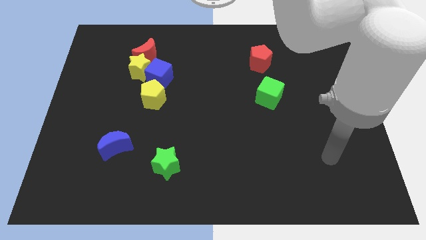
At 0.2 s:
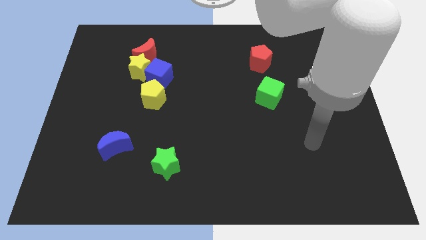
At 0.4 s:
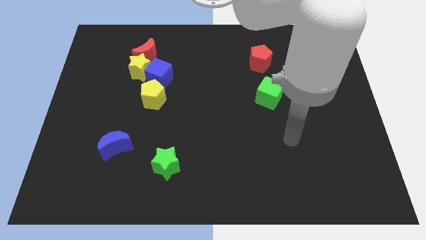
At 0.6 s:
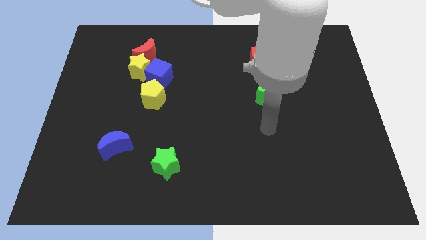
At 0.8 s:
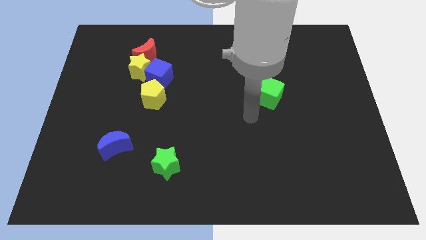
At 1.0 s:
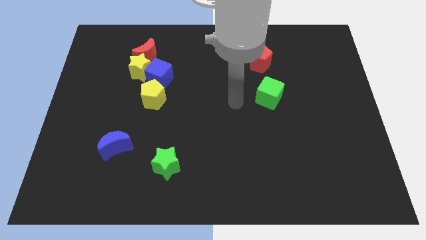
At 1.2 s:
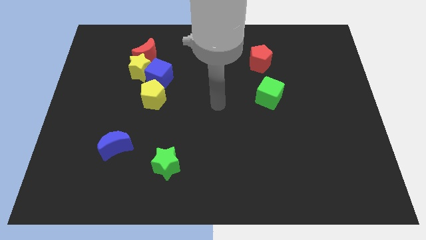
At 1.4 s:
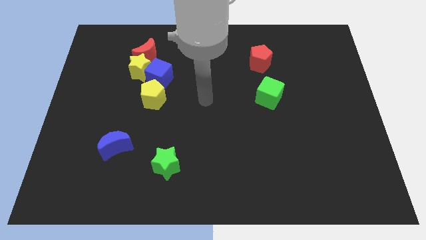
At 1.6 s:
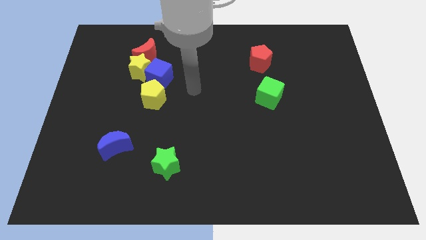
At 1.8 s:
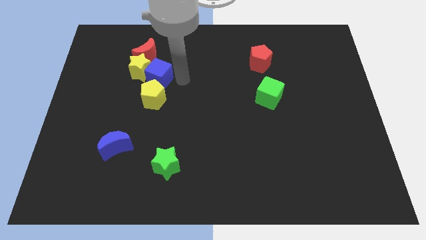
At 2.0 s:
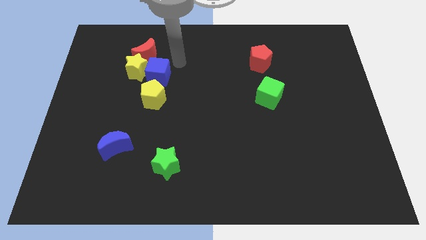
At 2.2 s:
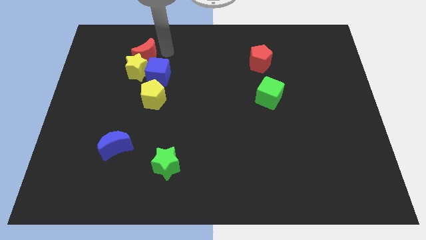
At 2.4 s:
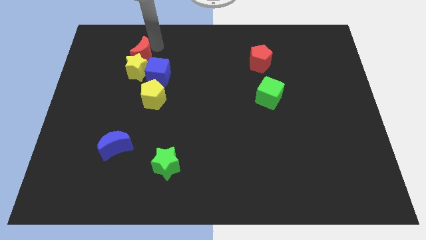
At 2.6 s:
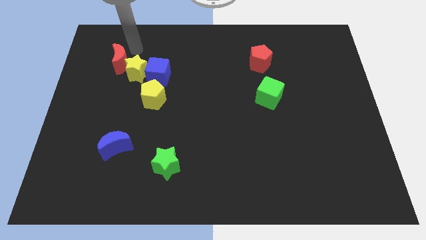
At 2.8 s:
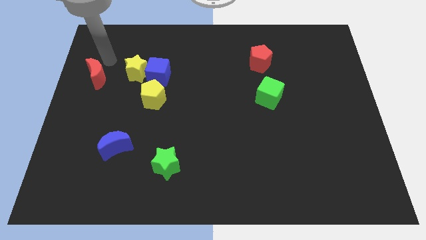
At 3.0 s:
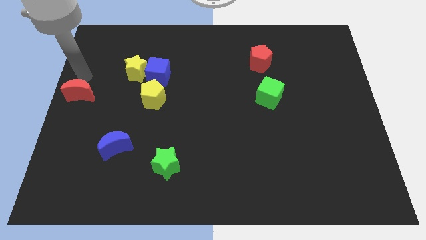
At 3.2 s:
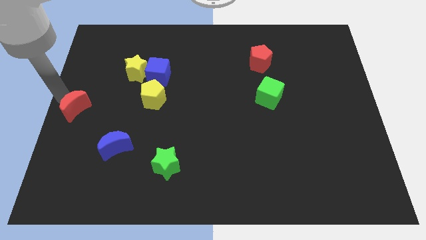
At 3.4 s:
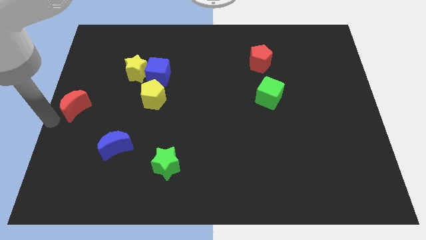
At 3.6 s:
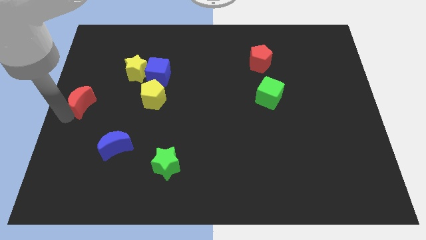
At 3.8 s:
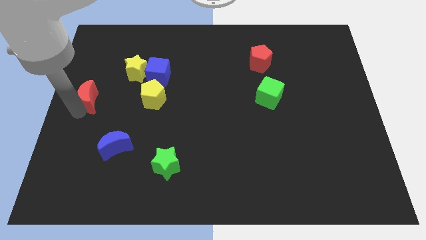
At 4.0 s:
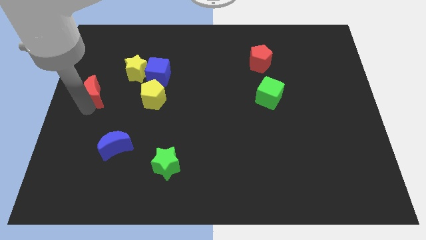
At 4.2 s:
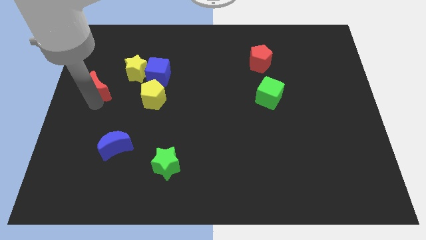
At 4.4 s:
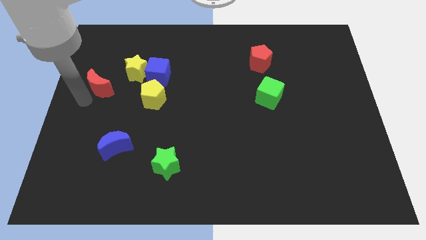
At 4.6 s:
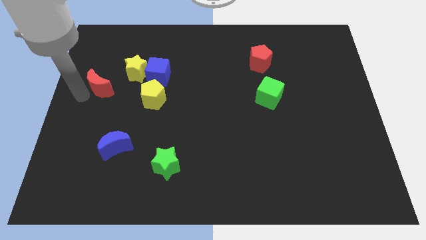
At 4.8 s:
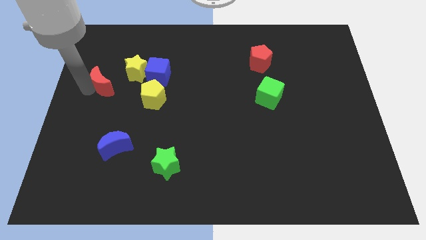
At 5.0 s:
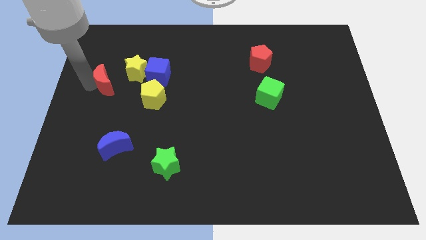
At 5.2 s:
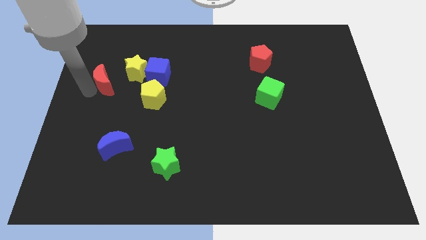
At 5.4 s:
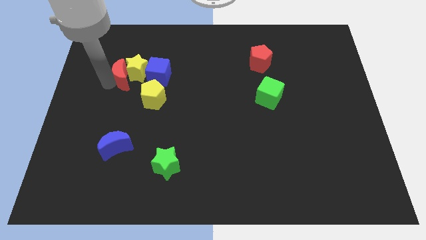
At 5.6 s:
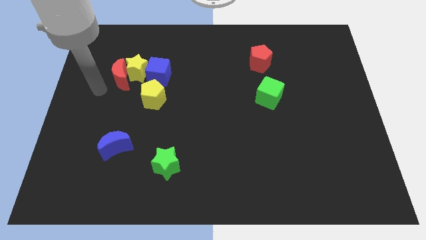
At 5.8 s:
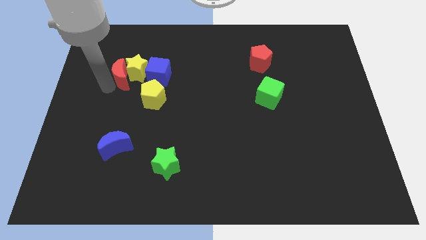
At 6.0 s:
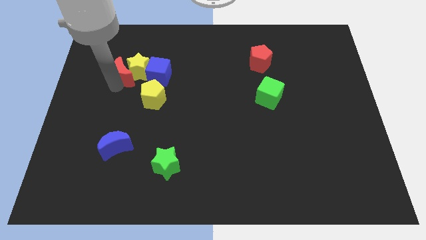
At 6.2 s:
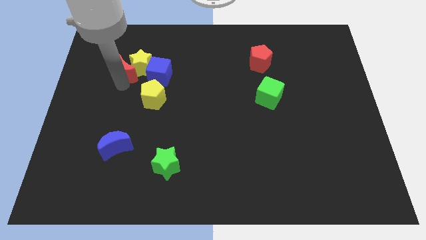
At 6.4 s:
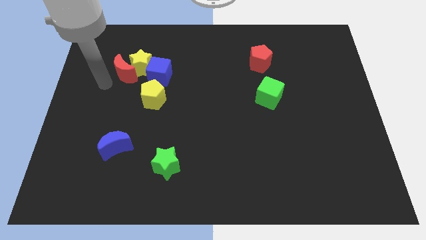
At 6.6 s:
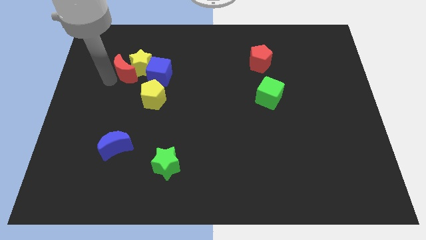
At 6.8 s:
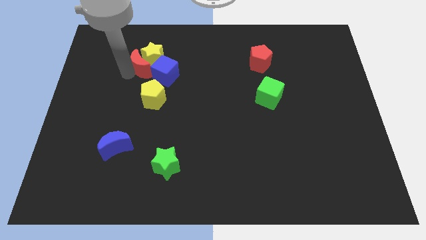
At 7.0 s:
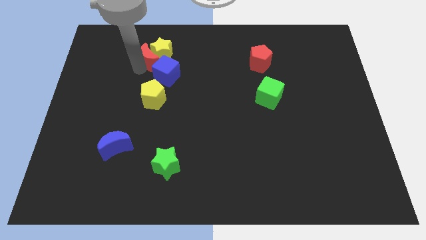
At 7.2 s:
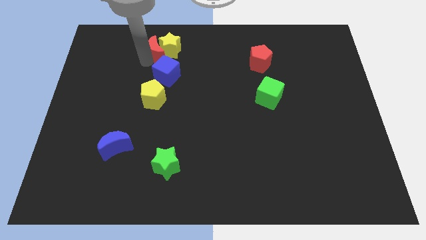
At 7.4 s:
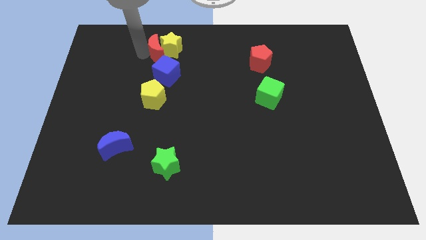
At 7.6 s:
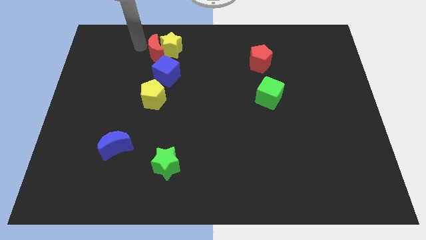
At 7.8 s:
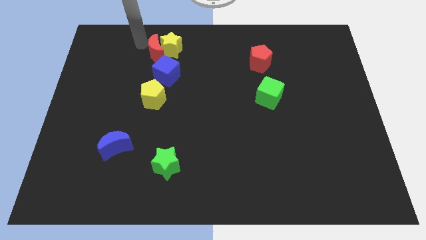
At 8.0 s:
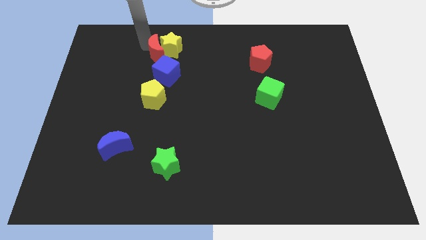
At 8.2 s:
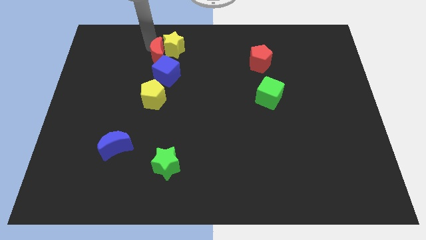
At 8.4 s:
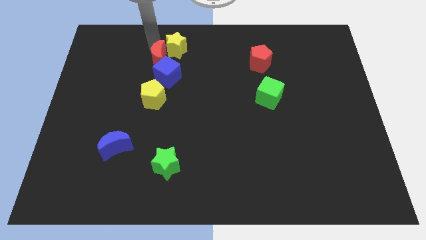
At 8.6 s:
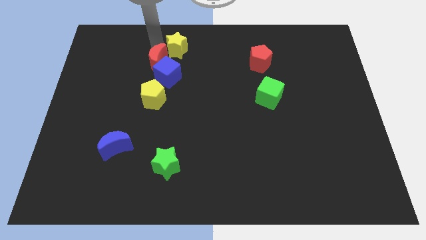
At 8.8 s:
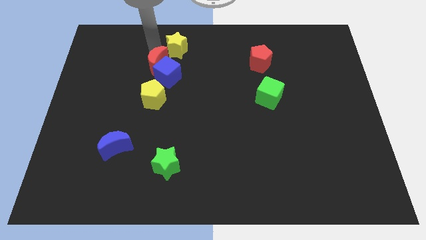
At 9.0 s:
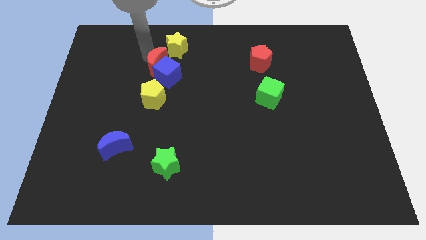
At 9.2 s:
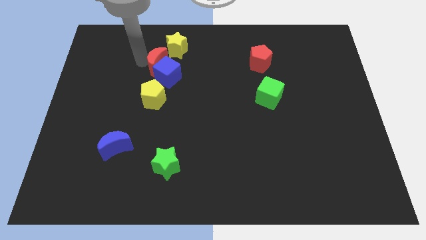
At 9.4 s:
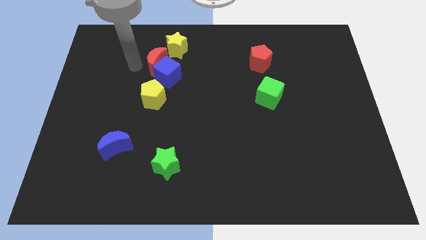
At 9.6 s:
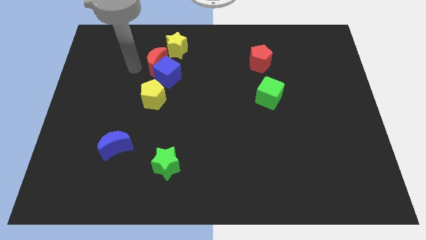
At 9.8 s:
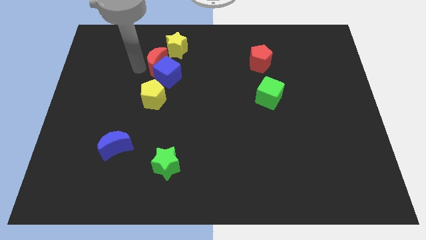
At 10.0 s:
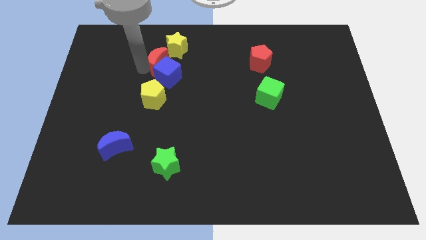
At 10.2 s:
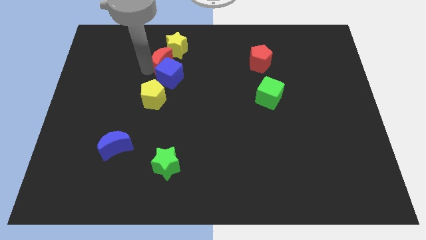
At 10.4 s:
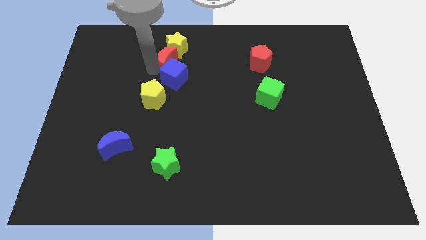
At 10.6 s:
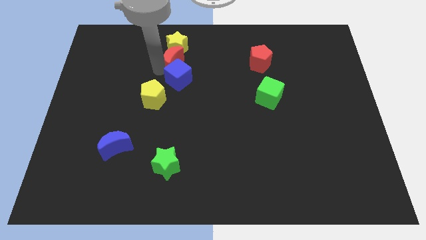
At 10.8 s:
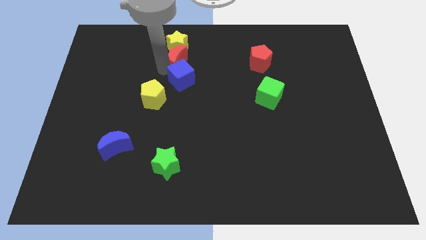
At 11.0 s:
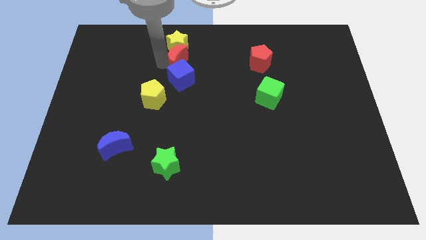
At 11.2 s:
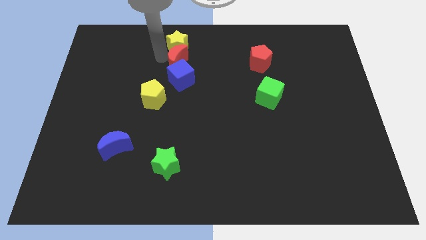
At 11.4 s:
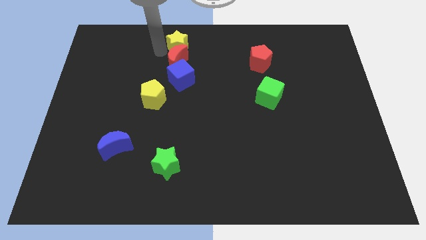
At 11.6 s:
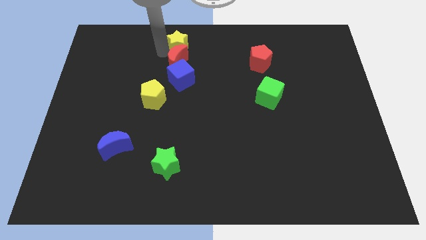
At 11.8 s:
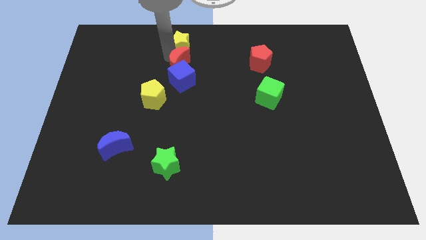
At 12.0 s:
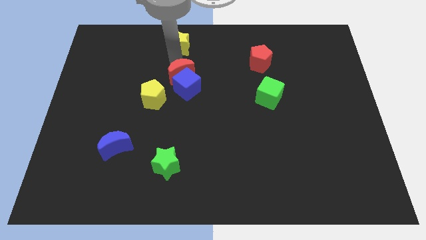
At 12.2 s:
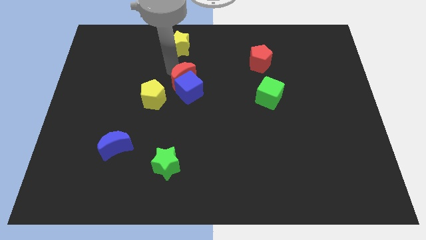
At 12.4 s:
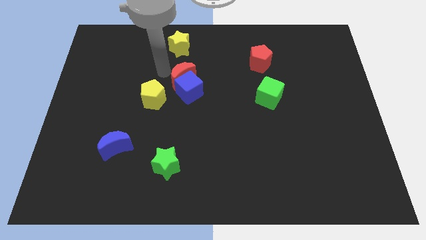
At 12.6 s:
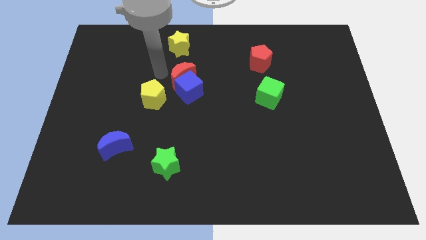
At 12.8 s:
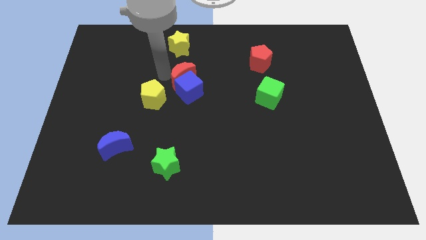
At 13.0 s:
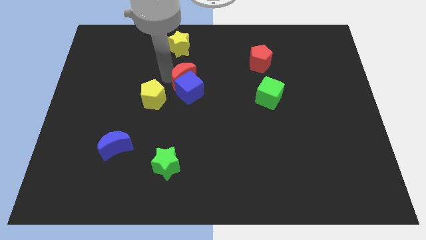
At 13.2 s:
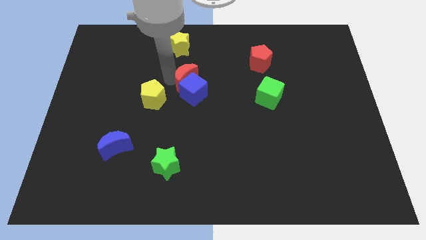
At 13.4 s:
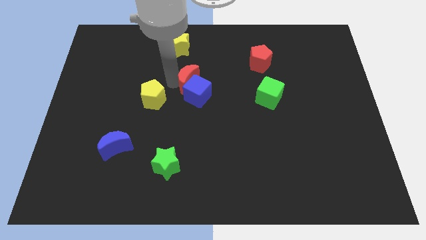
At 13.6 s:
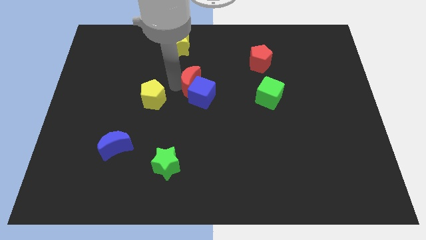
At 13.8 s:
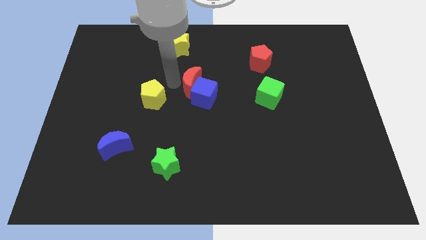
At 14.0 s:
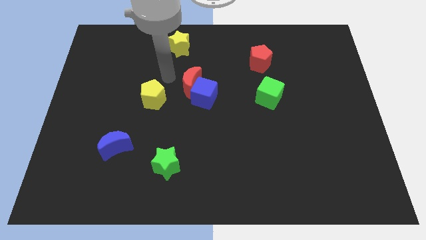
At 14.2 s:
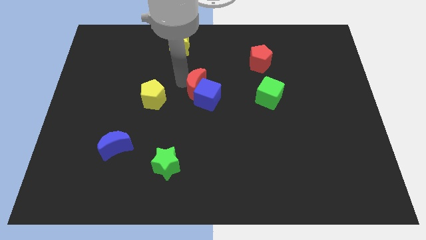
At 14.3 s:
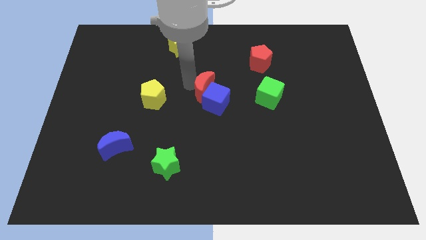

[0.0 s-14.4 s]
push the red moon to the left of the green cube
